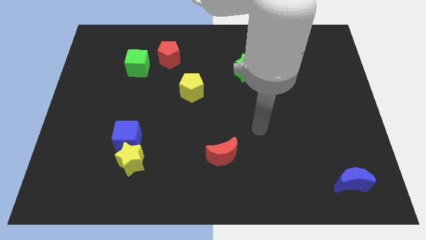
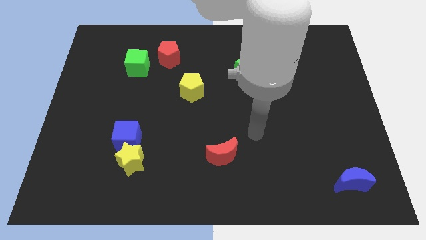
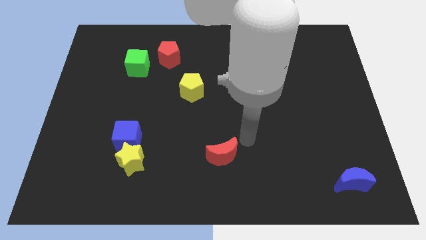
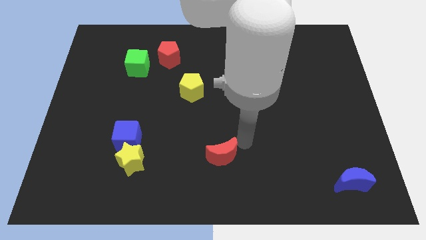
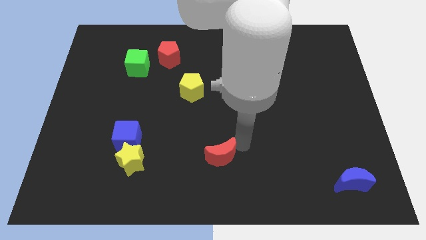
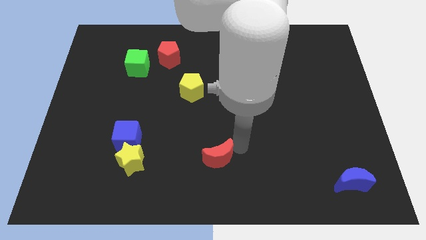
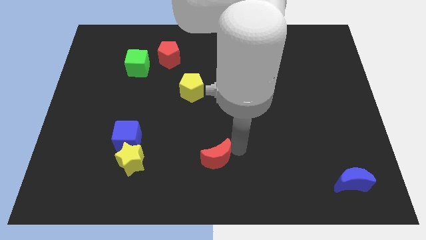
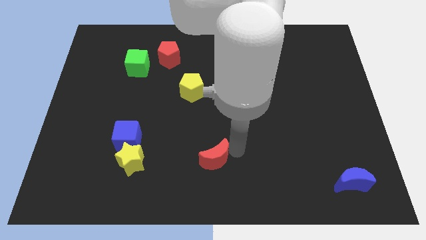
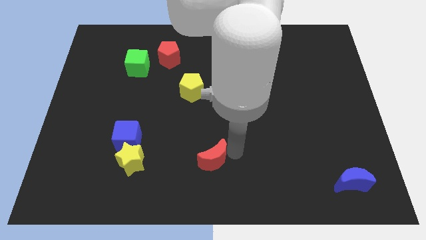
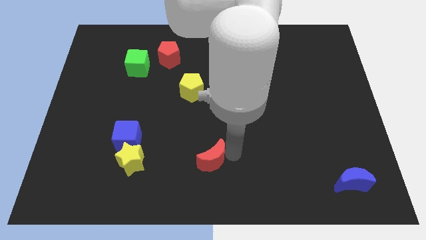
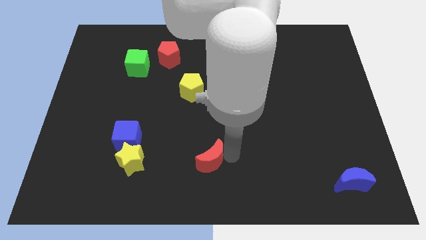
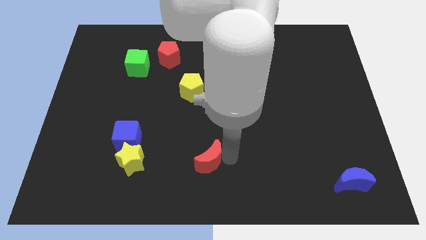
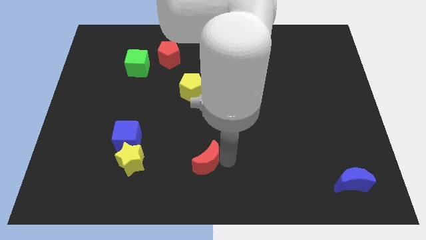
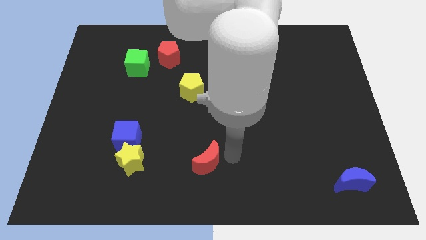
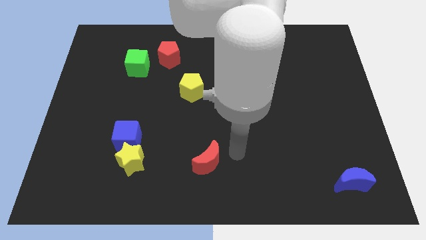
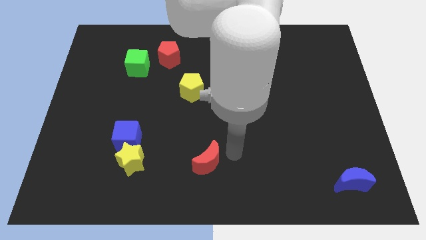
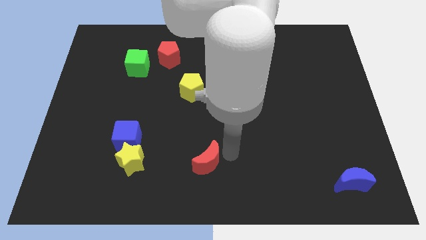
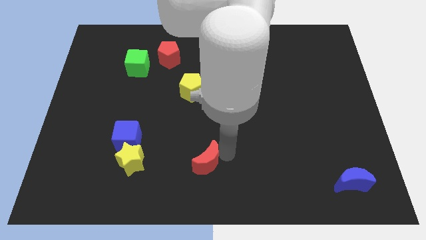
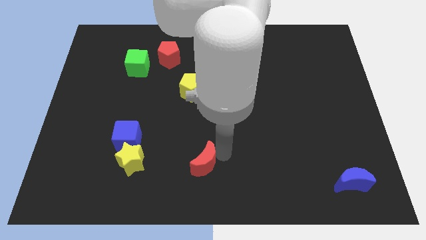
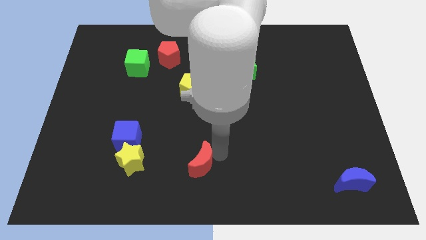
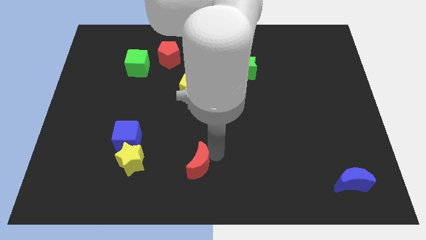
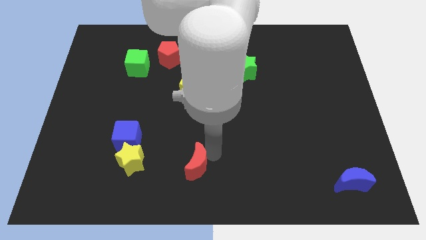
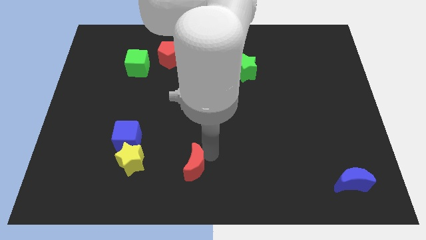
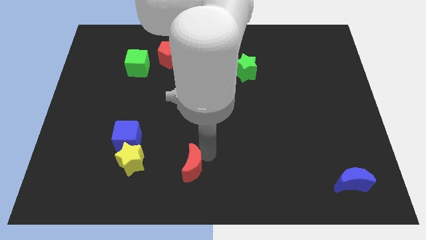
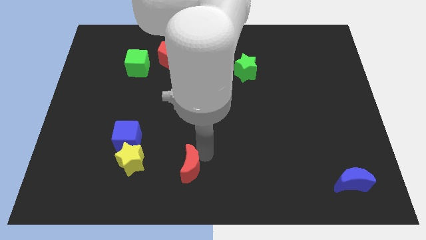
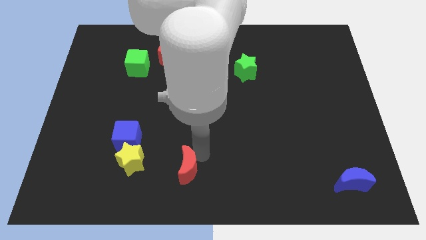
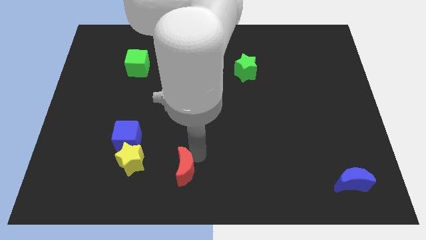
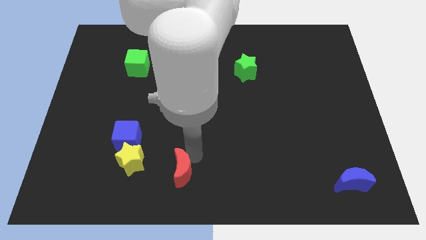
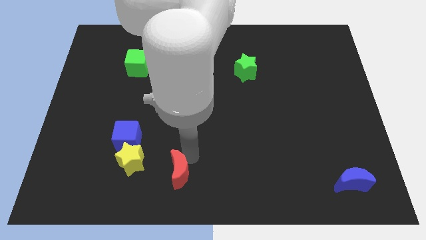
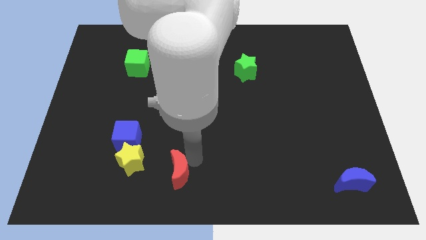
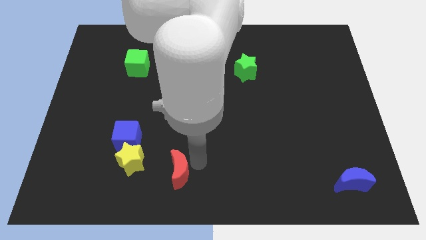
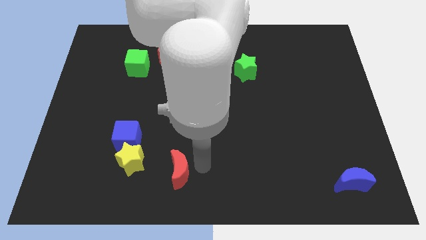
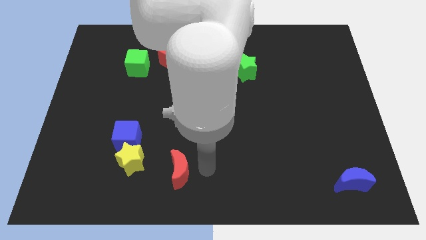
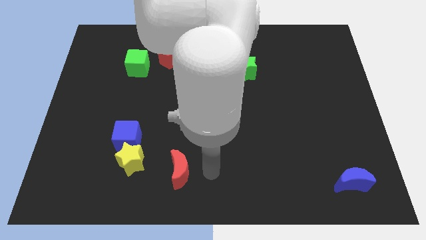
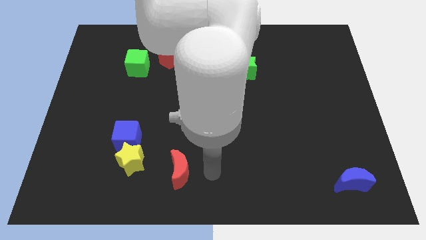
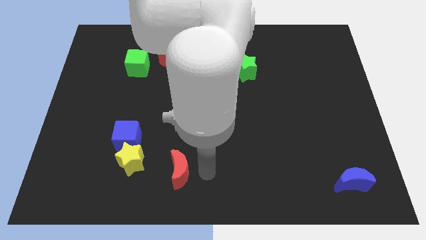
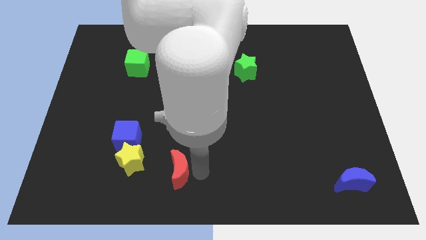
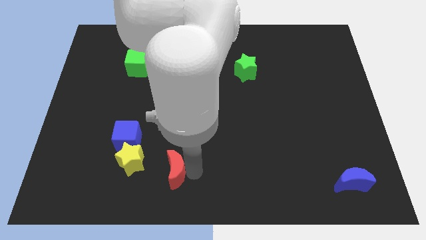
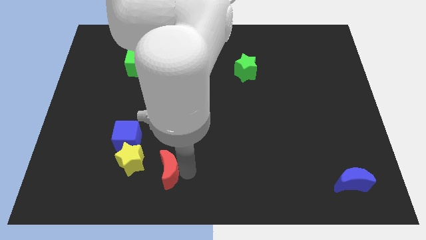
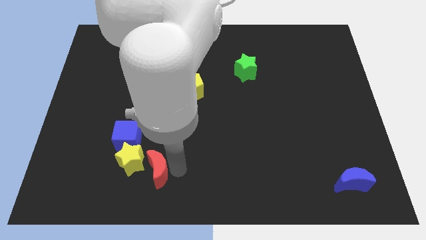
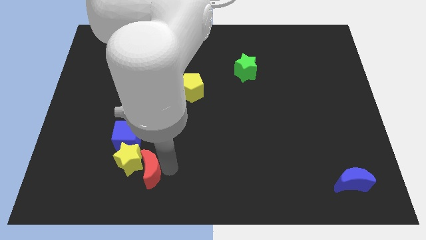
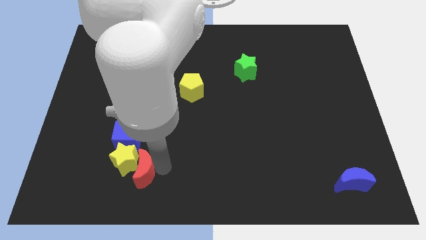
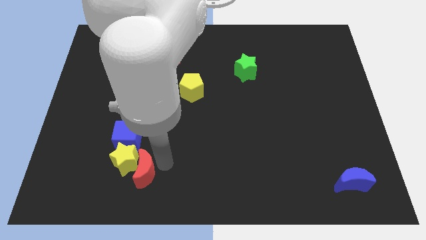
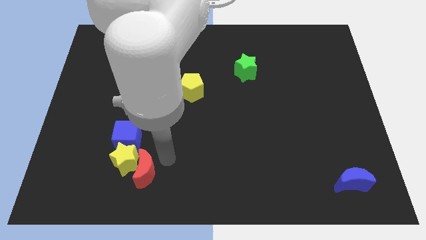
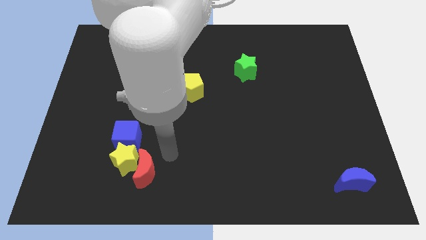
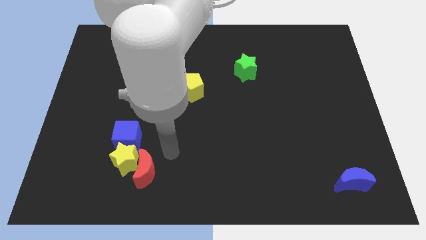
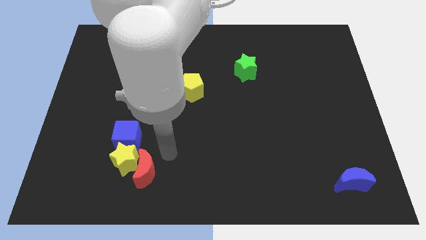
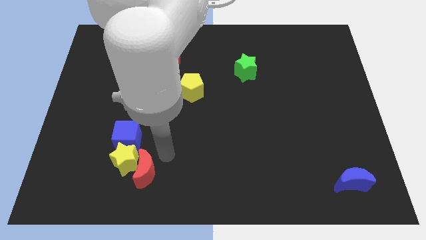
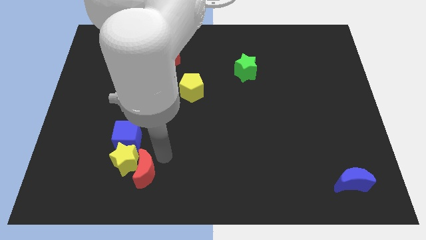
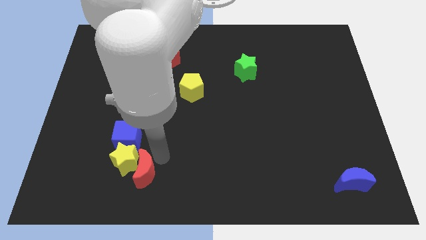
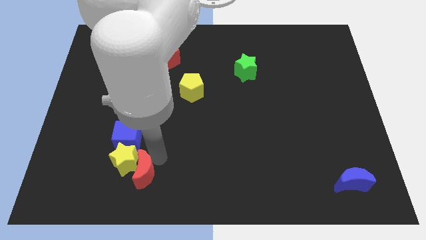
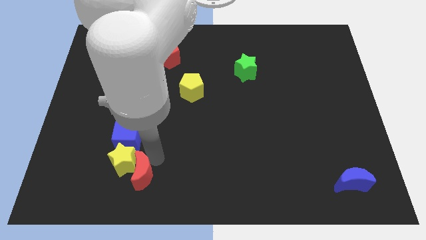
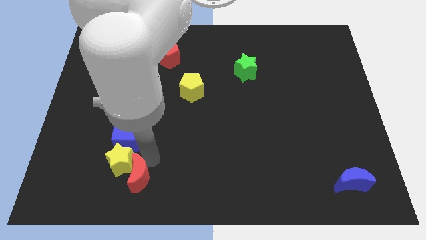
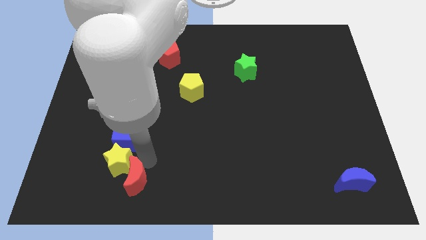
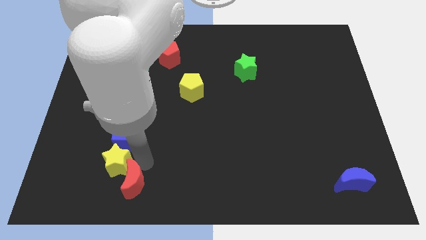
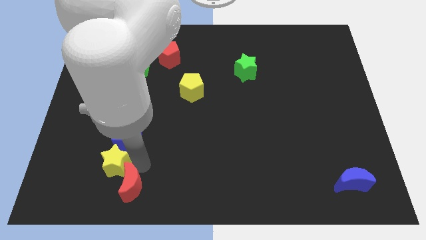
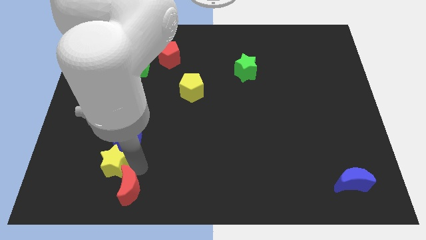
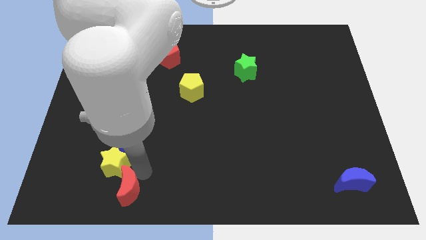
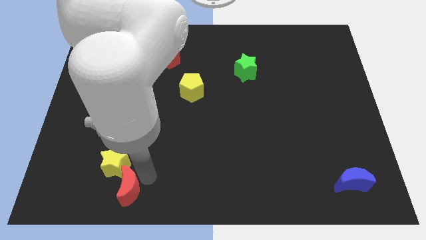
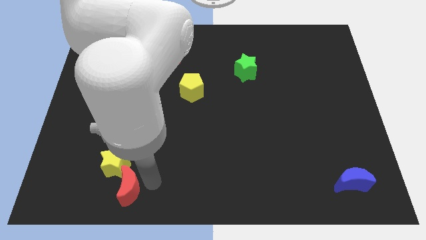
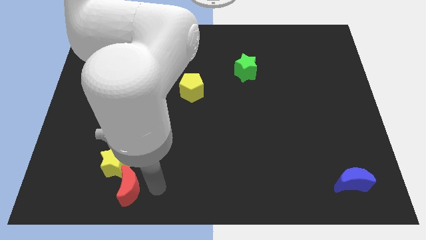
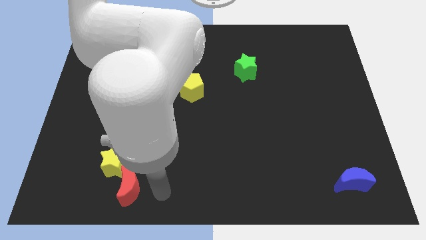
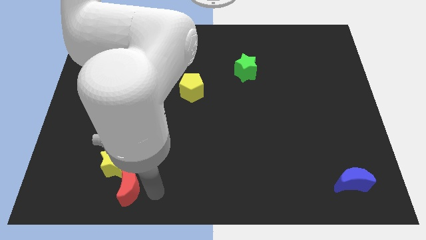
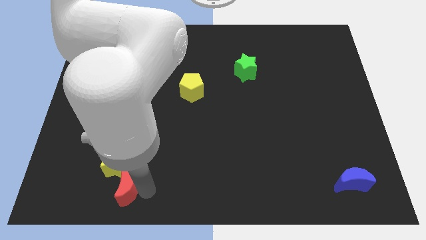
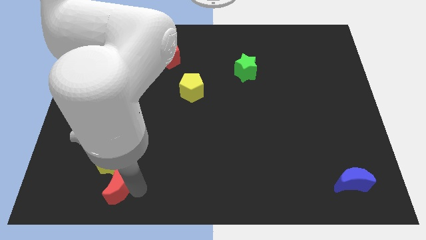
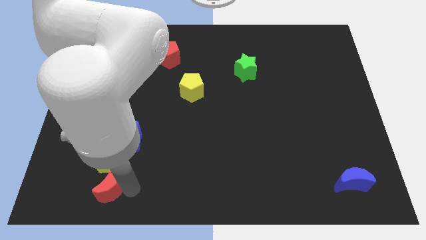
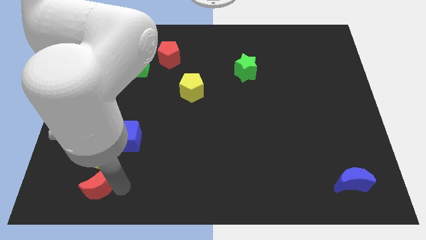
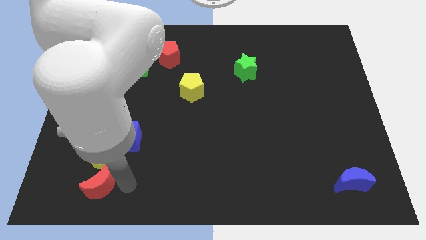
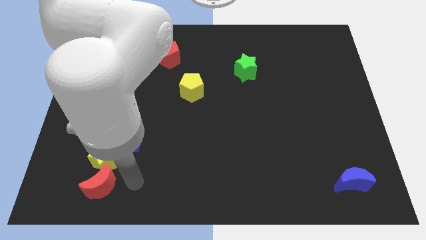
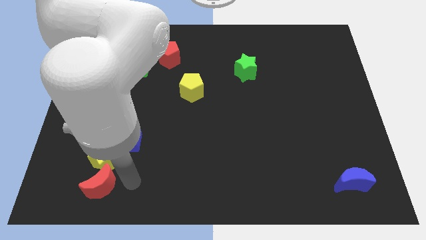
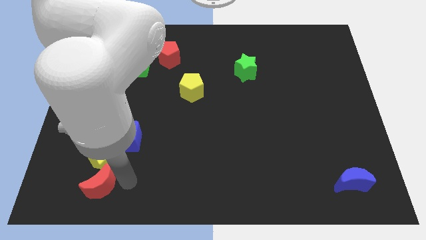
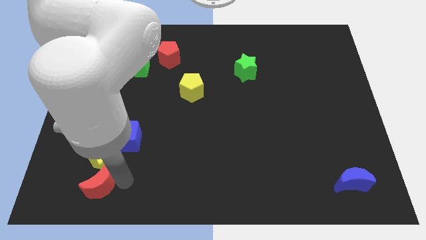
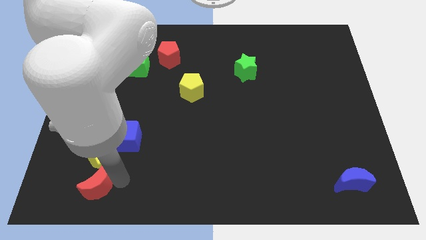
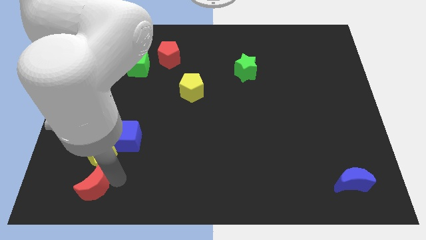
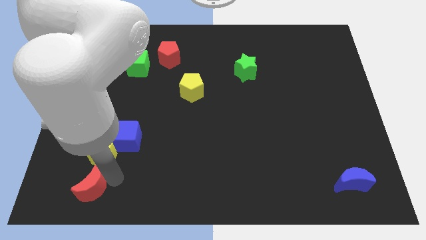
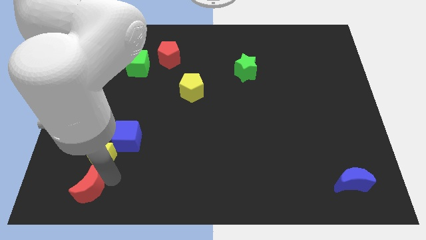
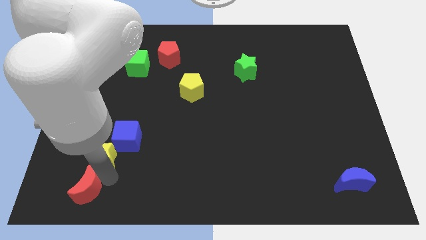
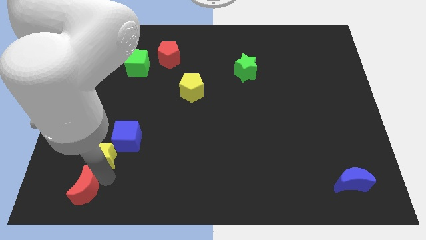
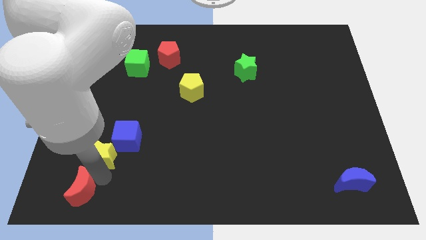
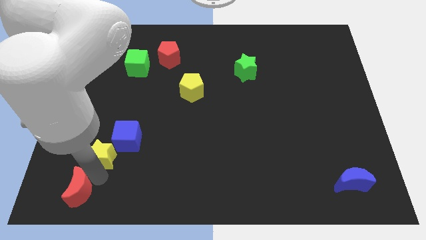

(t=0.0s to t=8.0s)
push the red moon to the bottom left corner
